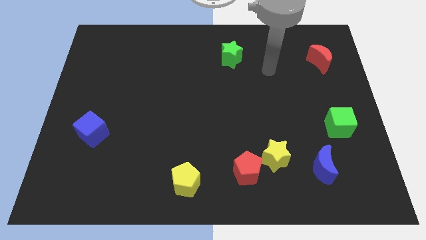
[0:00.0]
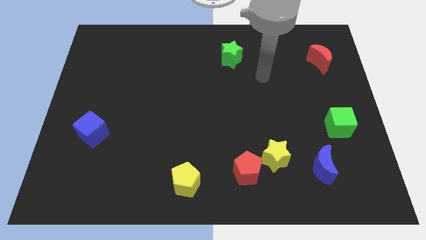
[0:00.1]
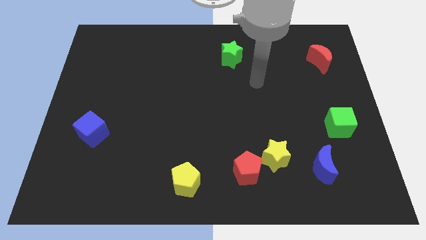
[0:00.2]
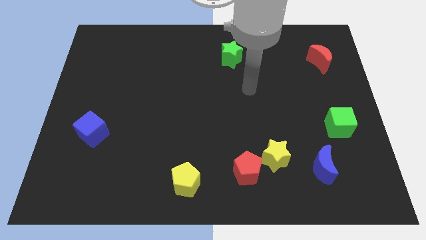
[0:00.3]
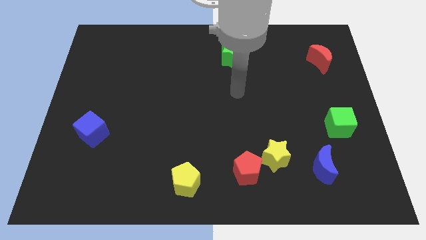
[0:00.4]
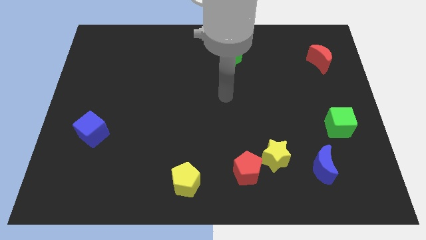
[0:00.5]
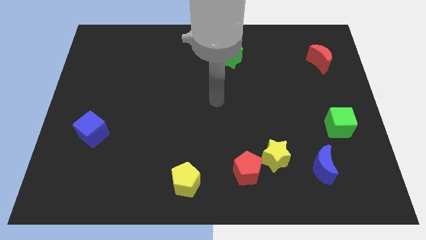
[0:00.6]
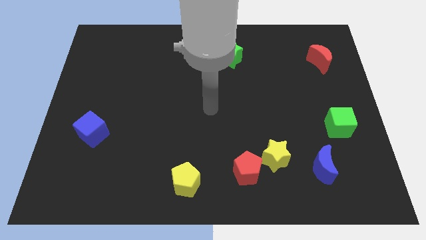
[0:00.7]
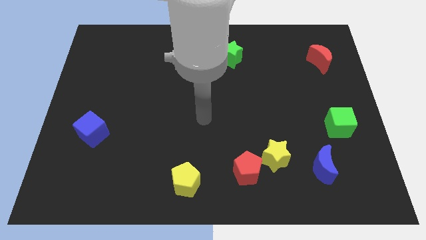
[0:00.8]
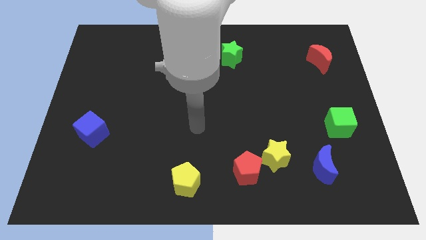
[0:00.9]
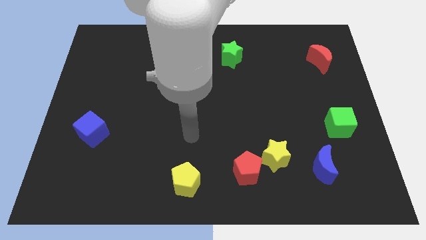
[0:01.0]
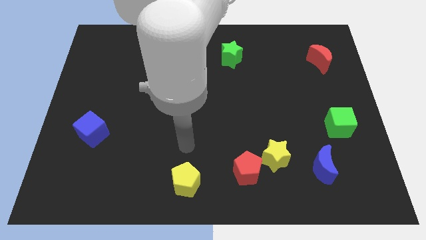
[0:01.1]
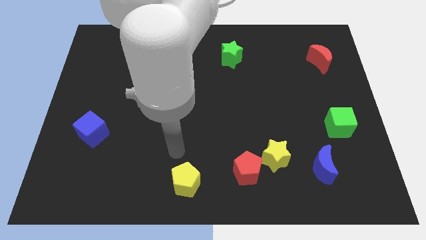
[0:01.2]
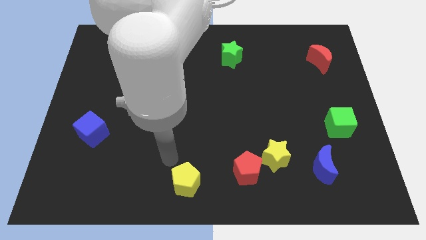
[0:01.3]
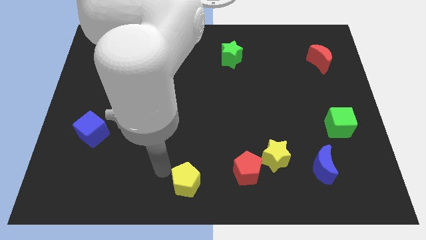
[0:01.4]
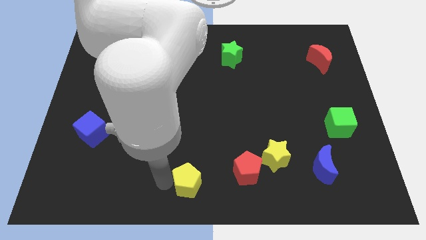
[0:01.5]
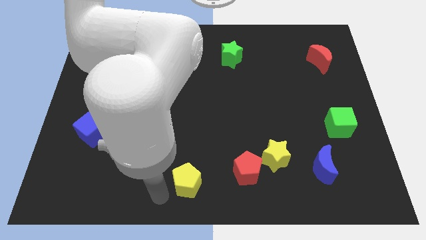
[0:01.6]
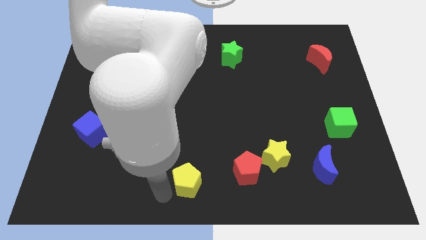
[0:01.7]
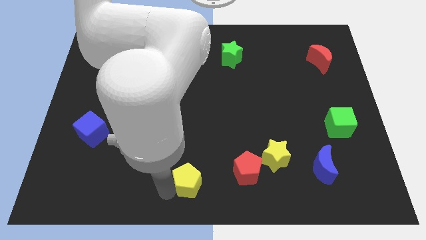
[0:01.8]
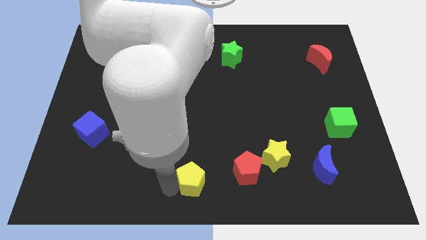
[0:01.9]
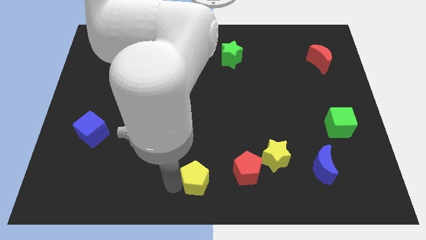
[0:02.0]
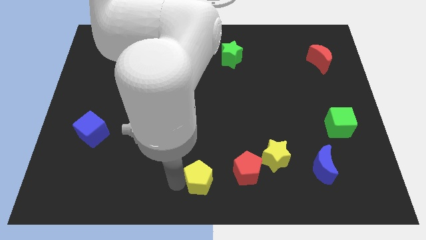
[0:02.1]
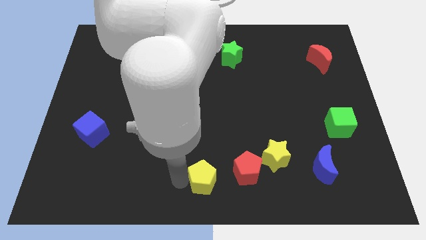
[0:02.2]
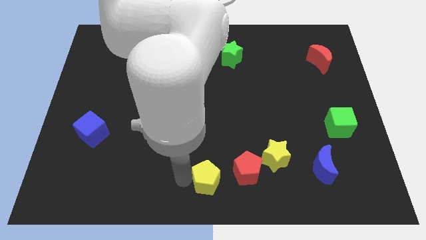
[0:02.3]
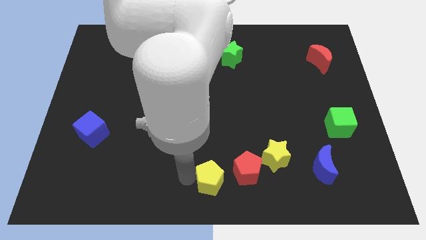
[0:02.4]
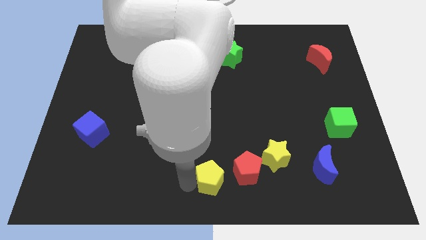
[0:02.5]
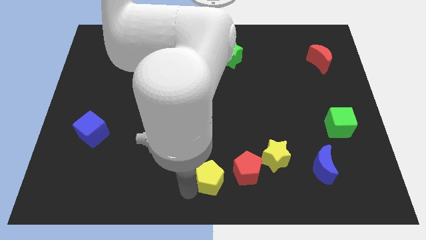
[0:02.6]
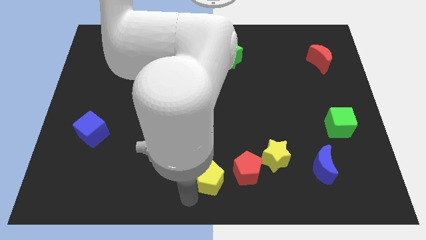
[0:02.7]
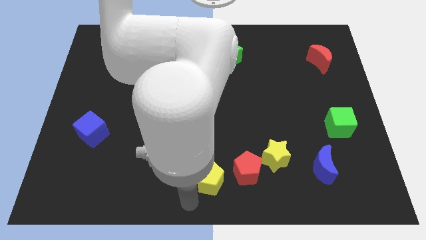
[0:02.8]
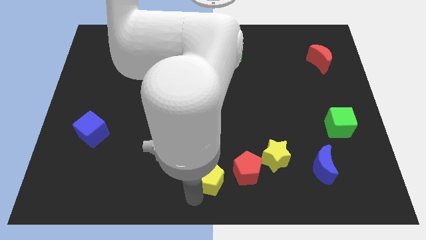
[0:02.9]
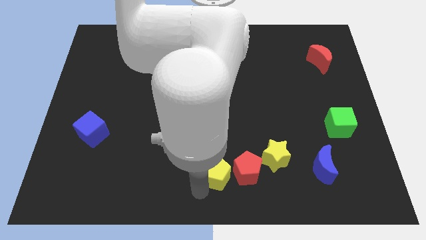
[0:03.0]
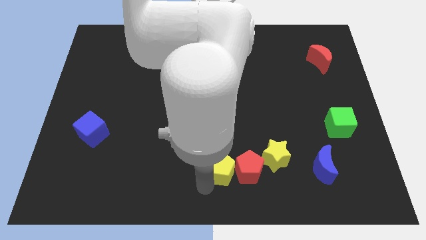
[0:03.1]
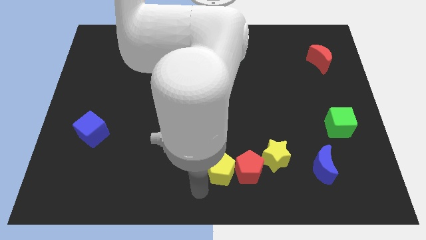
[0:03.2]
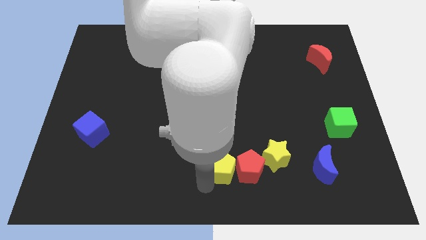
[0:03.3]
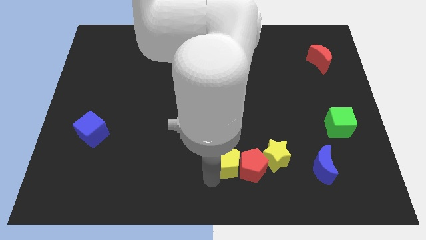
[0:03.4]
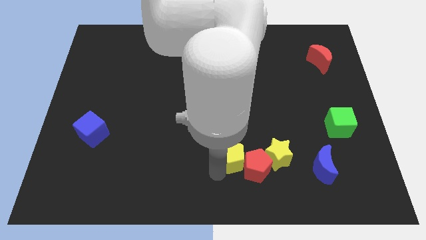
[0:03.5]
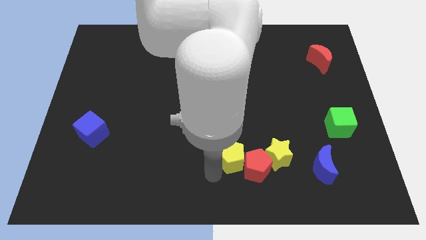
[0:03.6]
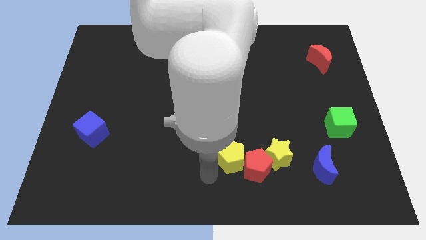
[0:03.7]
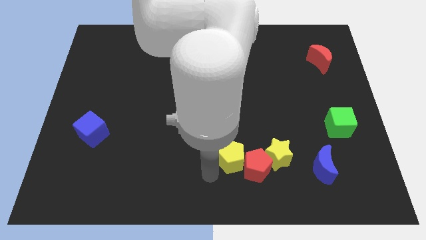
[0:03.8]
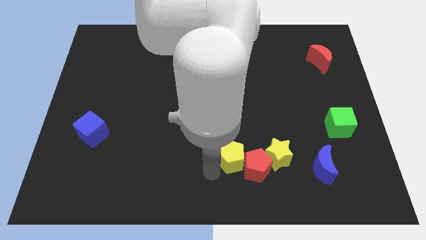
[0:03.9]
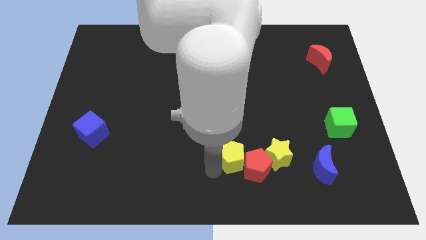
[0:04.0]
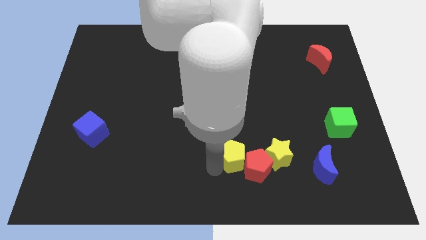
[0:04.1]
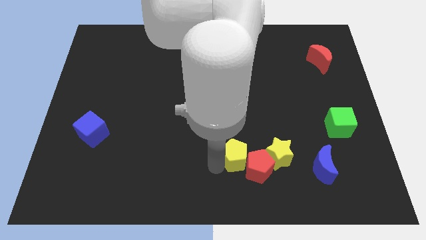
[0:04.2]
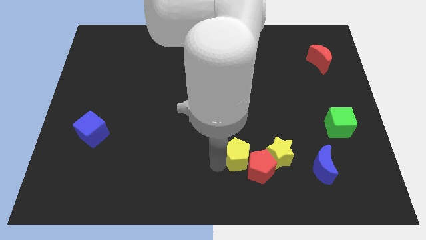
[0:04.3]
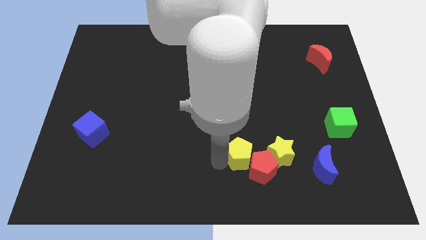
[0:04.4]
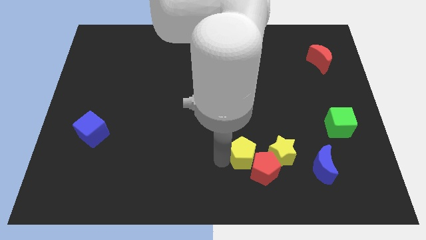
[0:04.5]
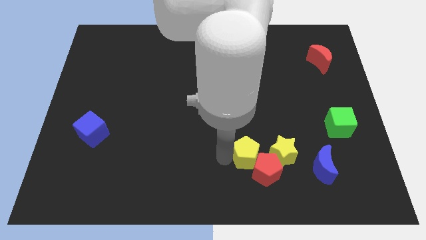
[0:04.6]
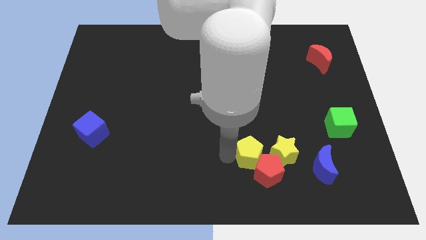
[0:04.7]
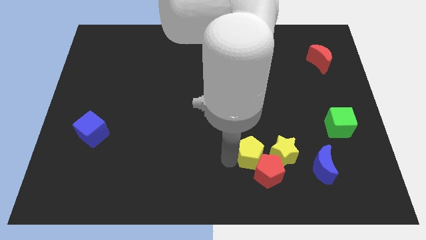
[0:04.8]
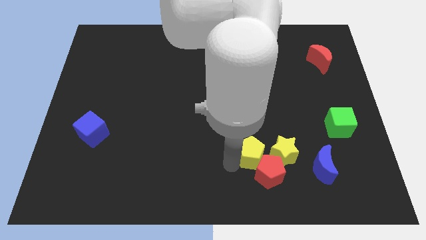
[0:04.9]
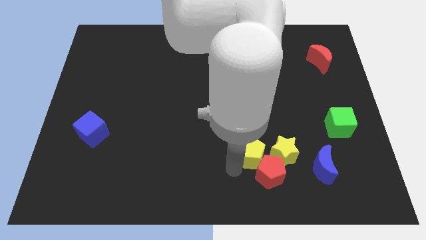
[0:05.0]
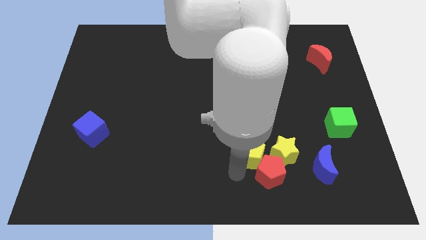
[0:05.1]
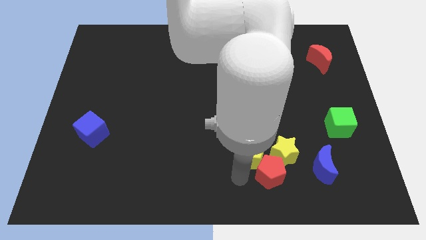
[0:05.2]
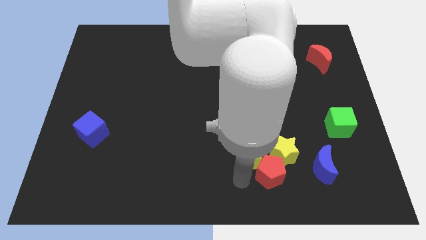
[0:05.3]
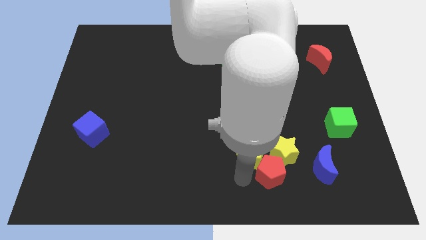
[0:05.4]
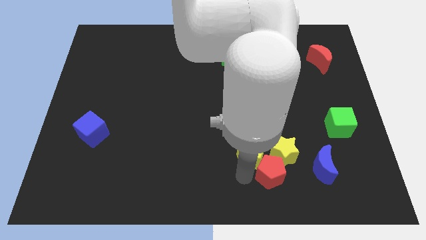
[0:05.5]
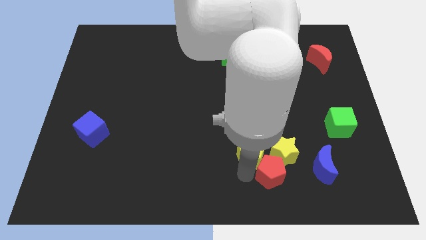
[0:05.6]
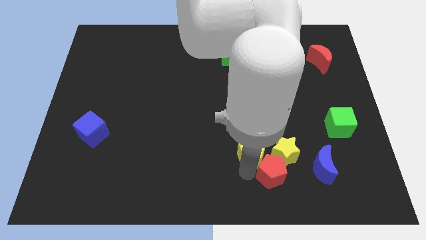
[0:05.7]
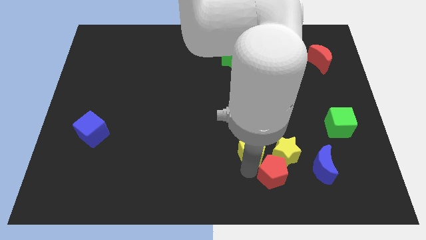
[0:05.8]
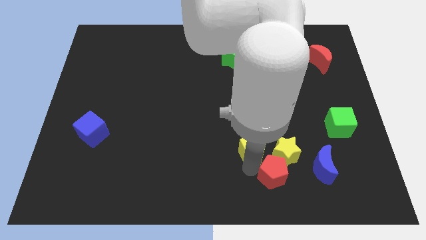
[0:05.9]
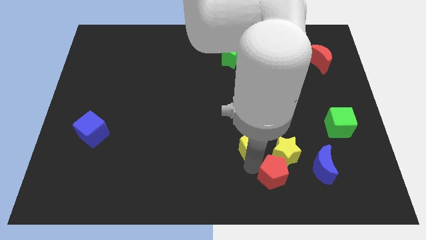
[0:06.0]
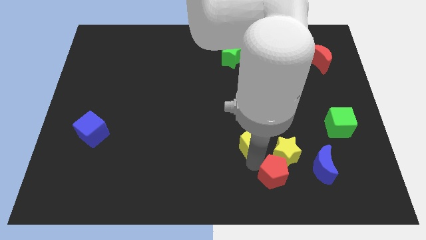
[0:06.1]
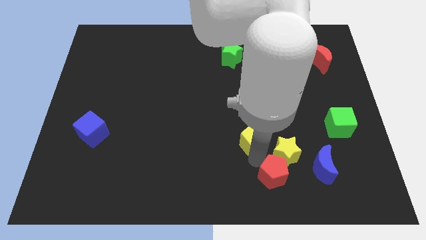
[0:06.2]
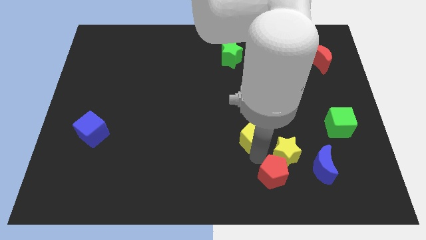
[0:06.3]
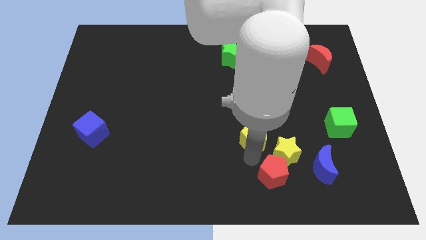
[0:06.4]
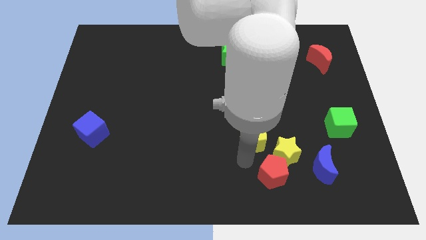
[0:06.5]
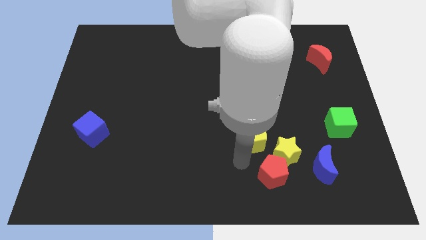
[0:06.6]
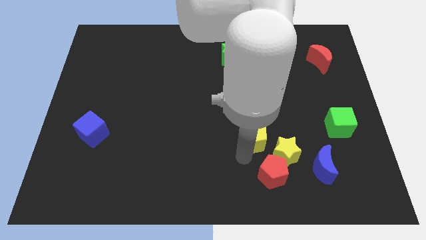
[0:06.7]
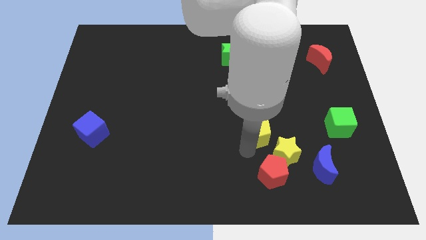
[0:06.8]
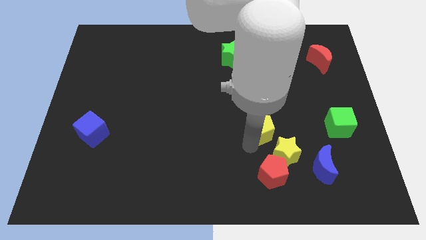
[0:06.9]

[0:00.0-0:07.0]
move the yellow pentagon upwards and right diagonally

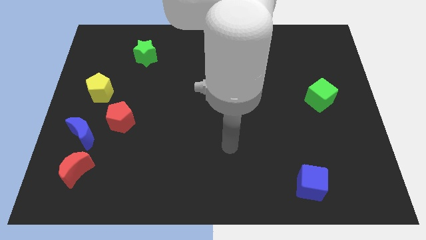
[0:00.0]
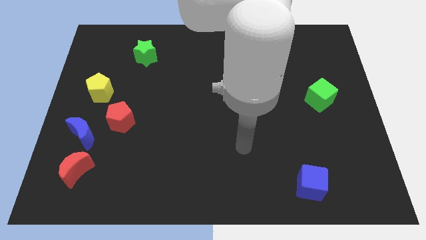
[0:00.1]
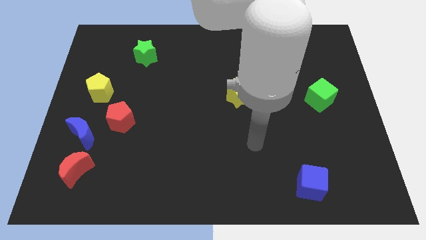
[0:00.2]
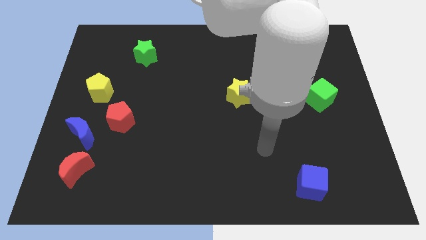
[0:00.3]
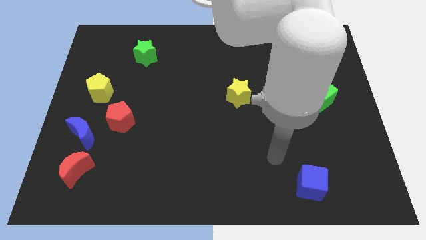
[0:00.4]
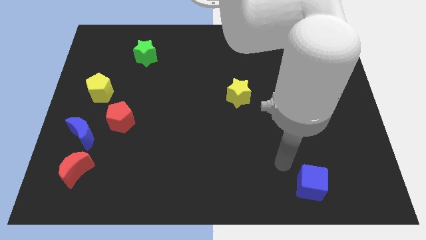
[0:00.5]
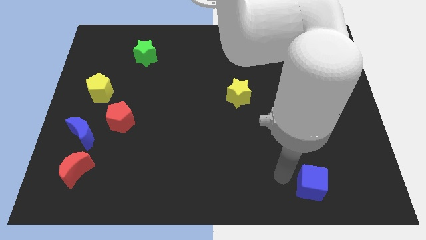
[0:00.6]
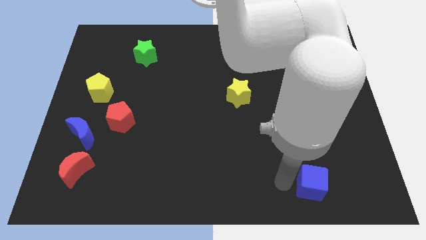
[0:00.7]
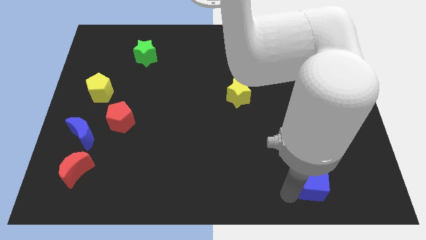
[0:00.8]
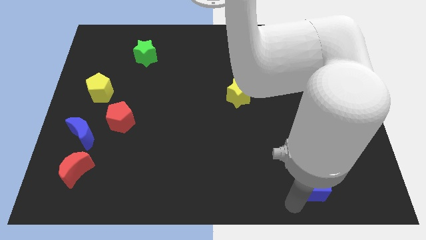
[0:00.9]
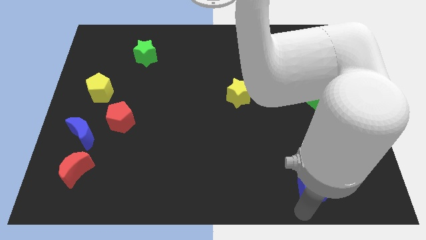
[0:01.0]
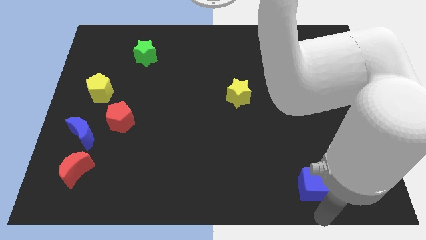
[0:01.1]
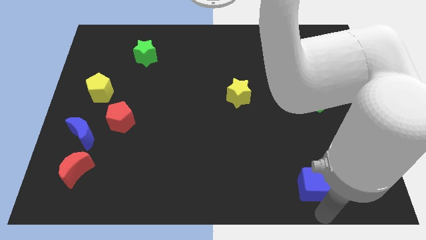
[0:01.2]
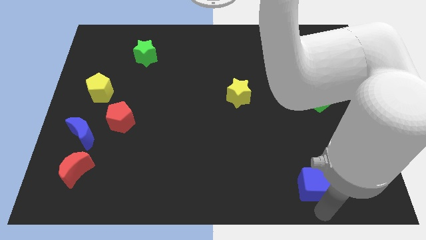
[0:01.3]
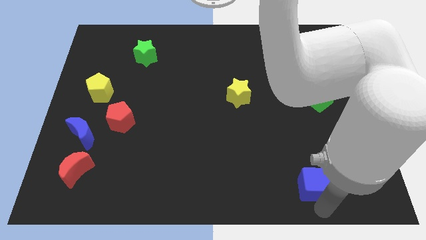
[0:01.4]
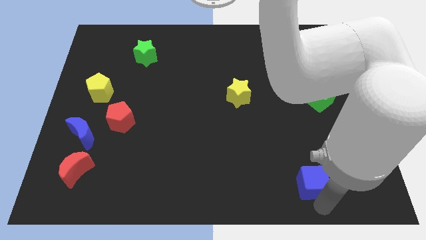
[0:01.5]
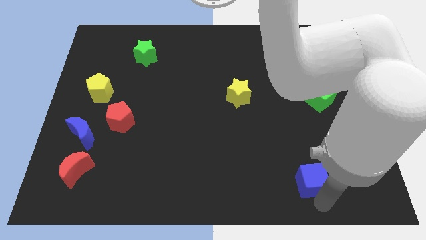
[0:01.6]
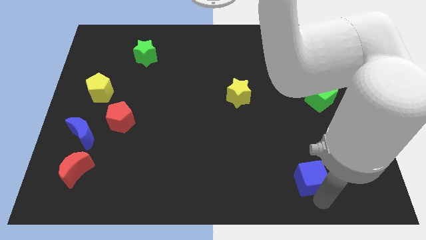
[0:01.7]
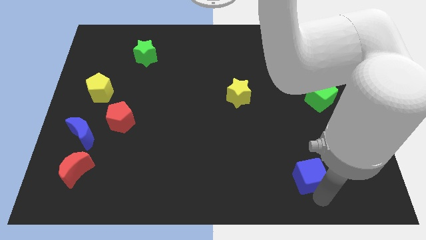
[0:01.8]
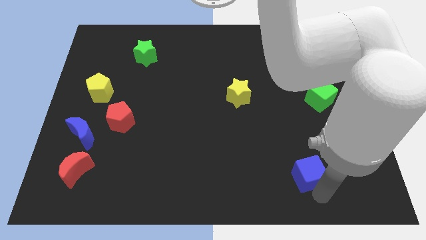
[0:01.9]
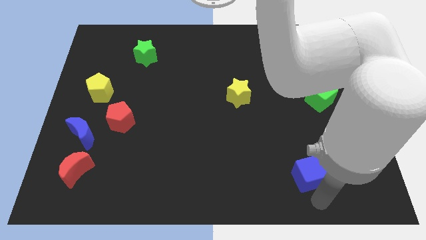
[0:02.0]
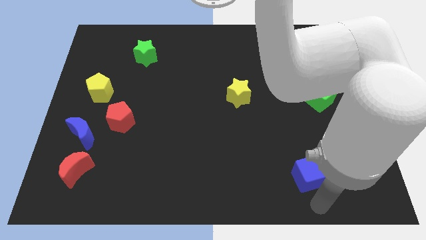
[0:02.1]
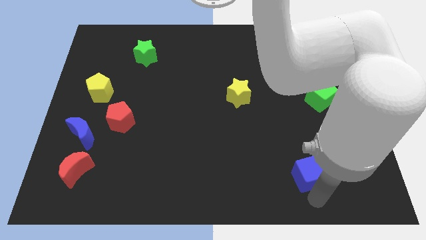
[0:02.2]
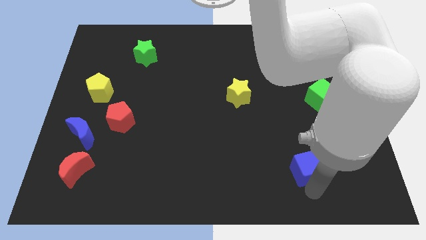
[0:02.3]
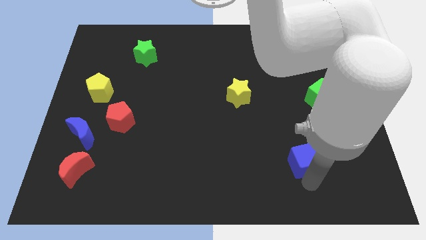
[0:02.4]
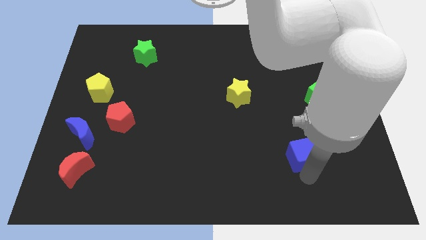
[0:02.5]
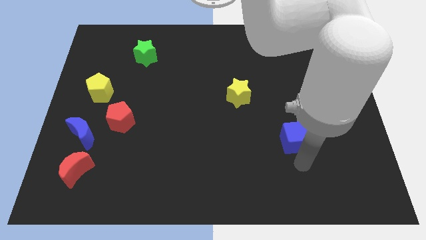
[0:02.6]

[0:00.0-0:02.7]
move the blue cube a bit up
